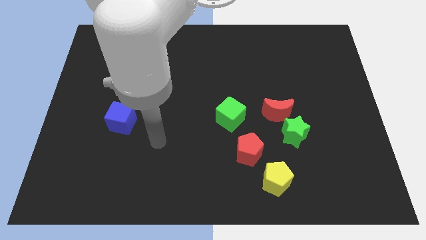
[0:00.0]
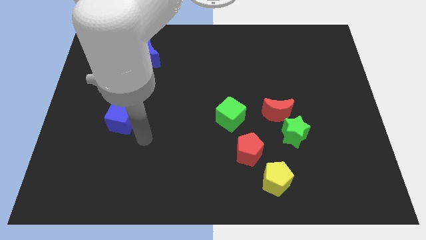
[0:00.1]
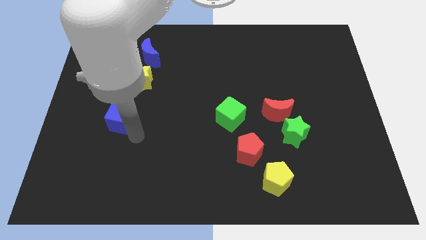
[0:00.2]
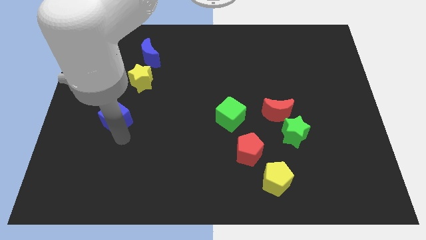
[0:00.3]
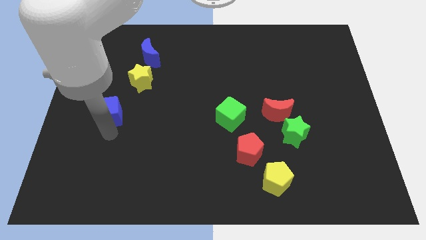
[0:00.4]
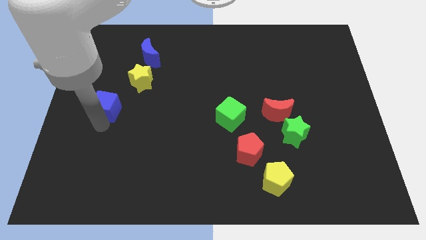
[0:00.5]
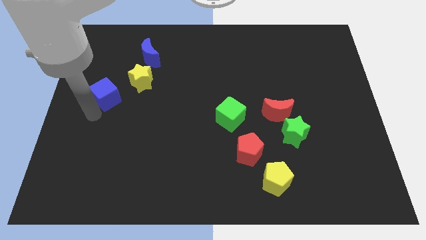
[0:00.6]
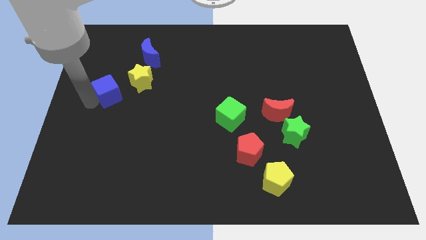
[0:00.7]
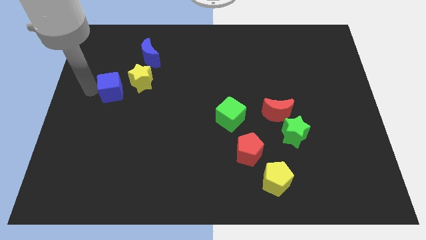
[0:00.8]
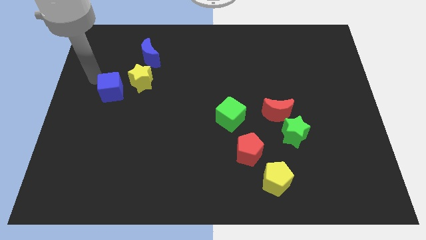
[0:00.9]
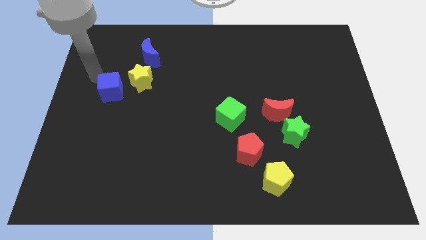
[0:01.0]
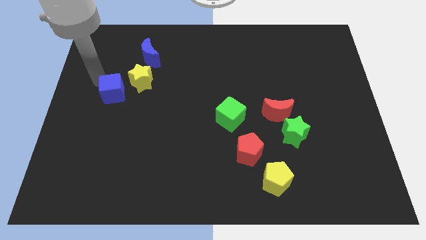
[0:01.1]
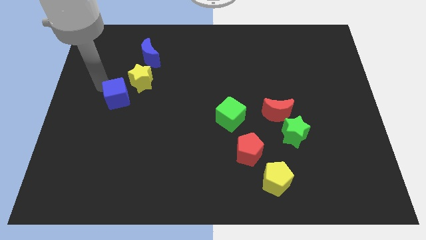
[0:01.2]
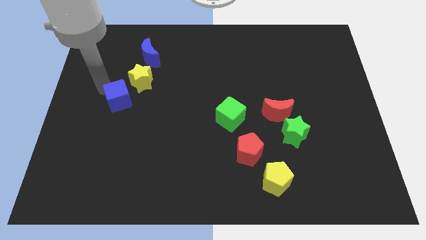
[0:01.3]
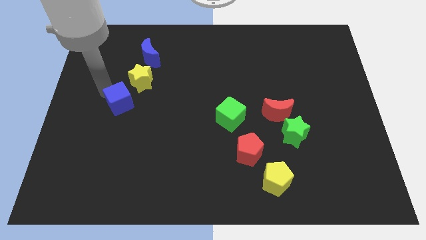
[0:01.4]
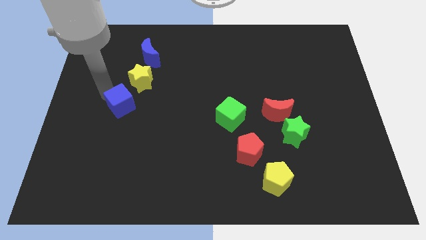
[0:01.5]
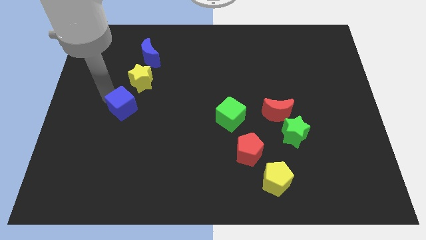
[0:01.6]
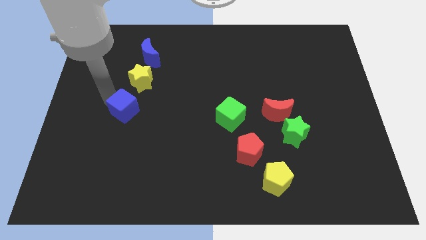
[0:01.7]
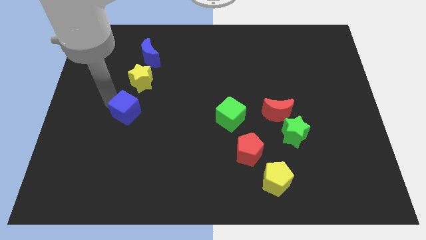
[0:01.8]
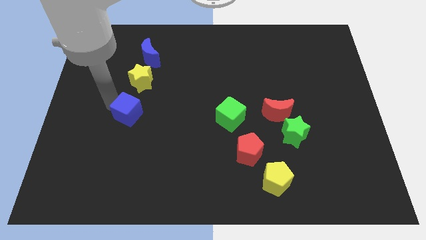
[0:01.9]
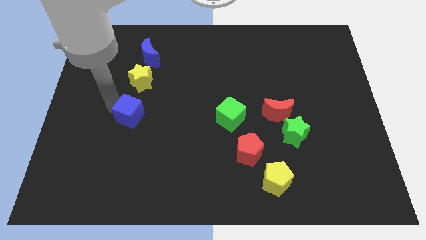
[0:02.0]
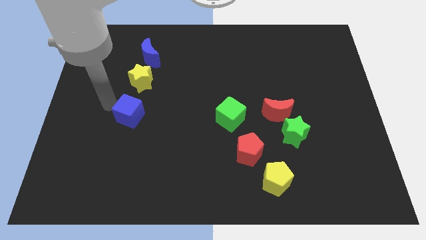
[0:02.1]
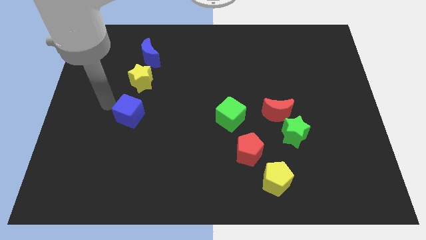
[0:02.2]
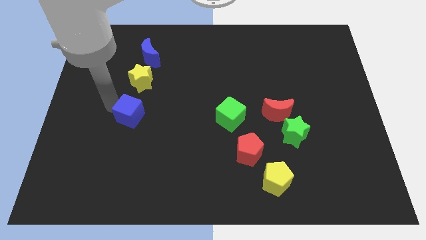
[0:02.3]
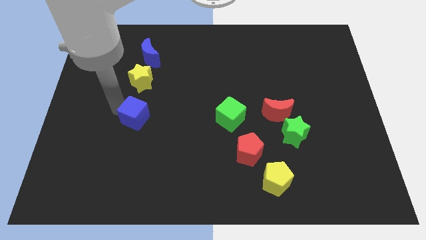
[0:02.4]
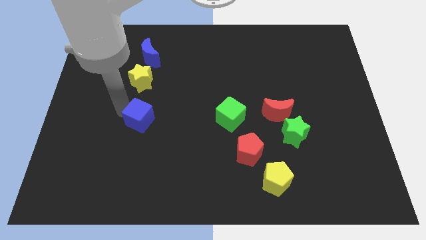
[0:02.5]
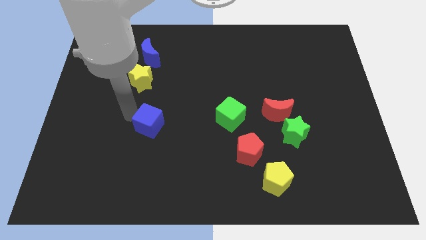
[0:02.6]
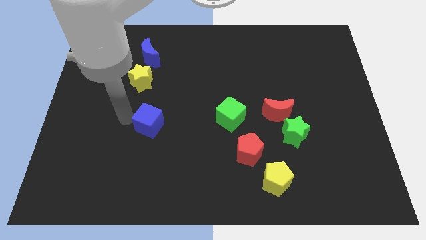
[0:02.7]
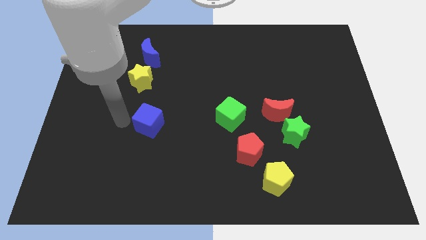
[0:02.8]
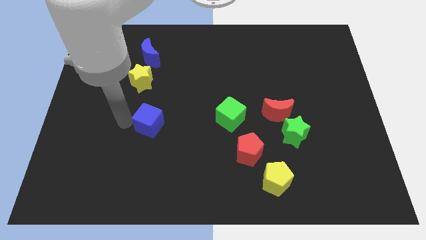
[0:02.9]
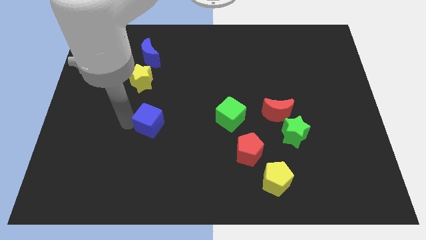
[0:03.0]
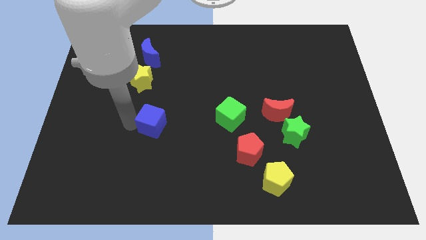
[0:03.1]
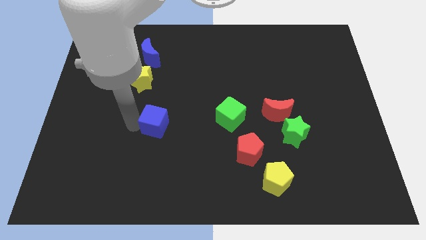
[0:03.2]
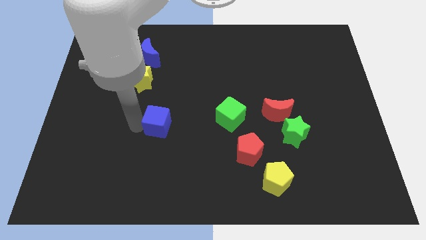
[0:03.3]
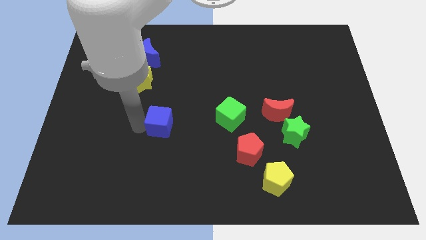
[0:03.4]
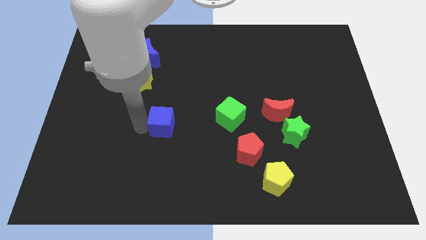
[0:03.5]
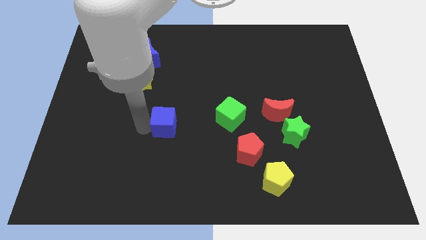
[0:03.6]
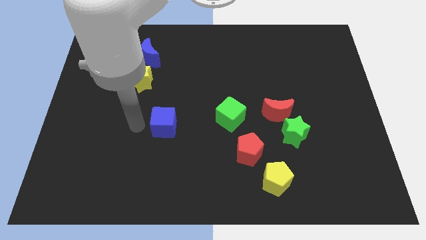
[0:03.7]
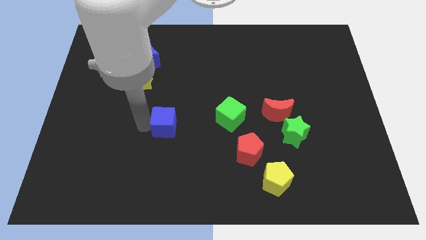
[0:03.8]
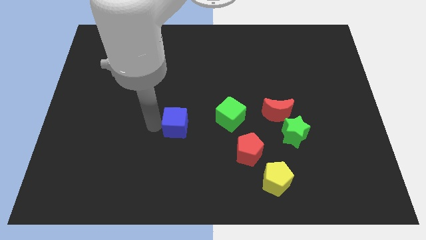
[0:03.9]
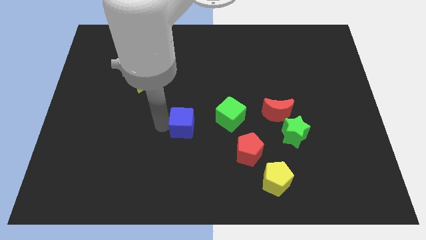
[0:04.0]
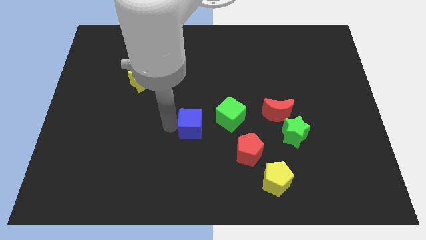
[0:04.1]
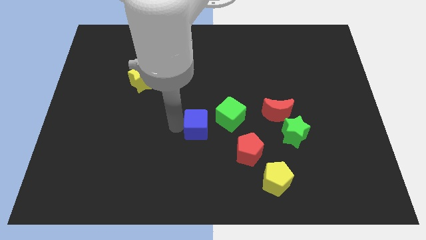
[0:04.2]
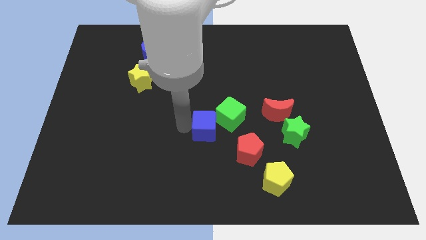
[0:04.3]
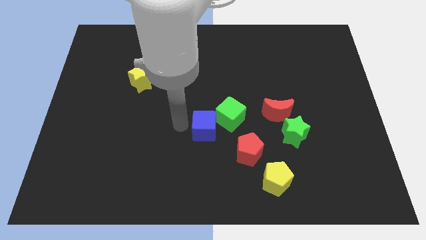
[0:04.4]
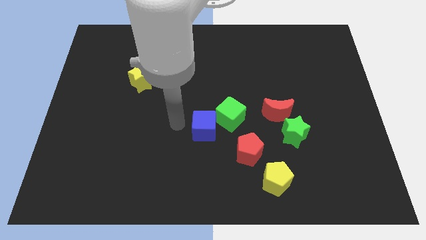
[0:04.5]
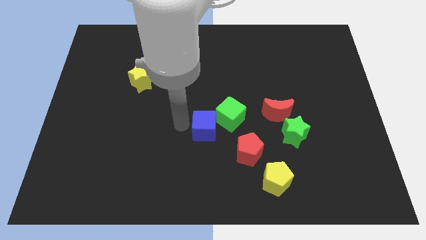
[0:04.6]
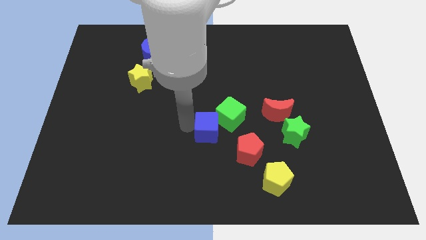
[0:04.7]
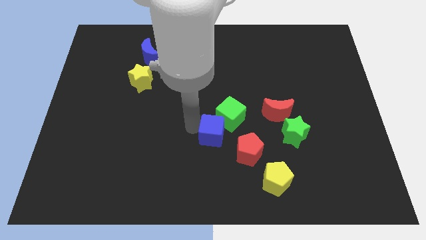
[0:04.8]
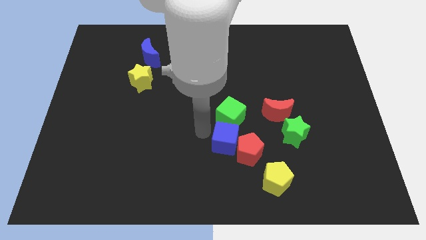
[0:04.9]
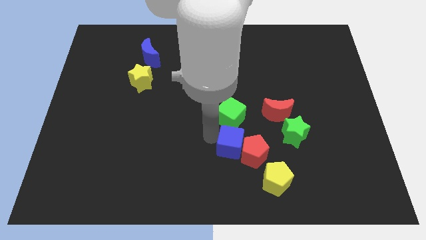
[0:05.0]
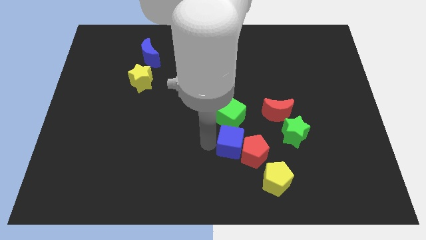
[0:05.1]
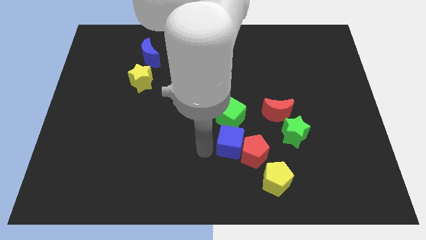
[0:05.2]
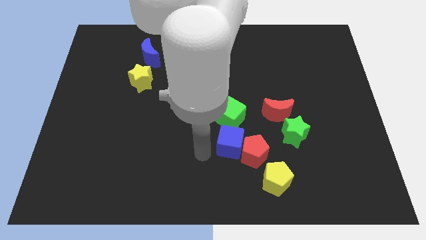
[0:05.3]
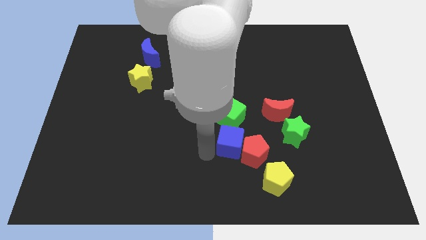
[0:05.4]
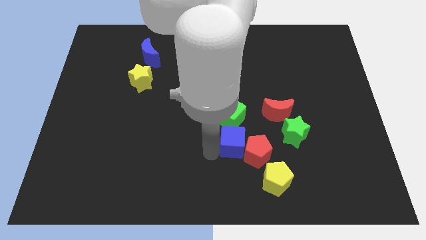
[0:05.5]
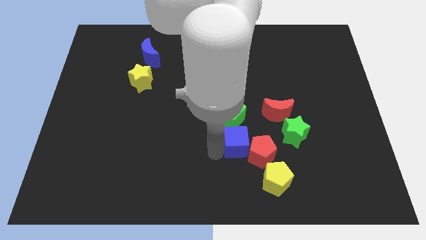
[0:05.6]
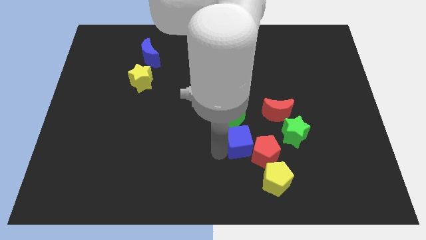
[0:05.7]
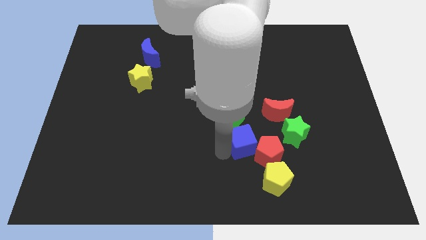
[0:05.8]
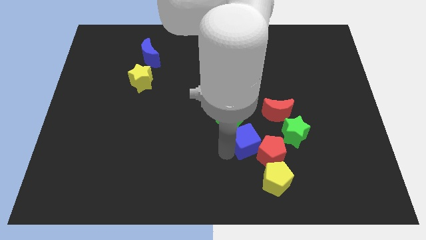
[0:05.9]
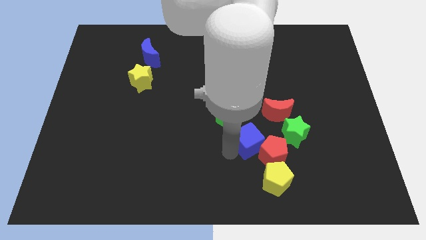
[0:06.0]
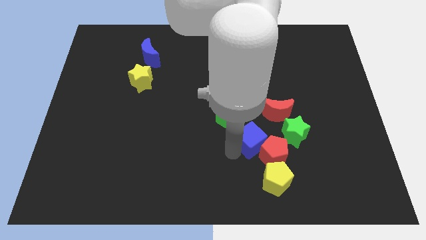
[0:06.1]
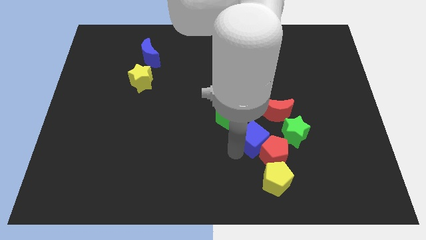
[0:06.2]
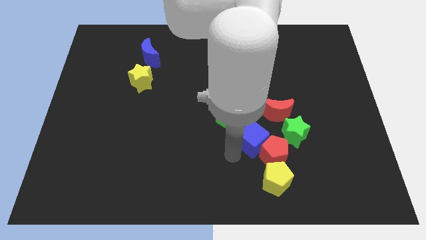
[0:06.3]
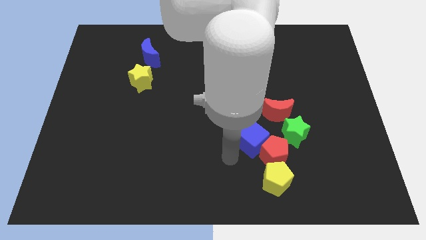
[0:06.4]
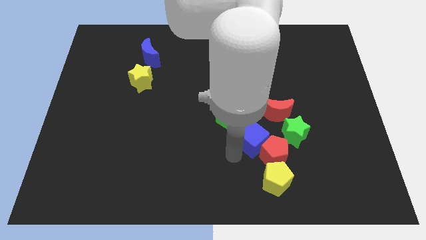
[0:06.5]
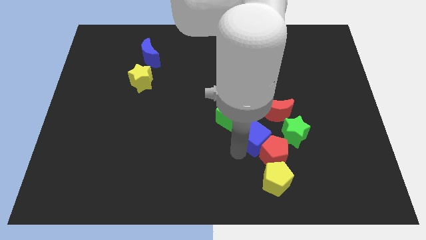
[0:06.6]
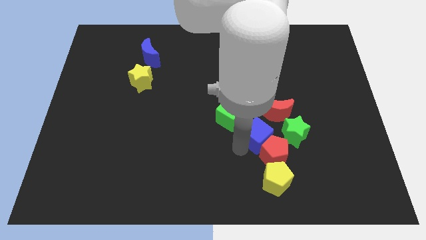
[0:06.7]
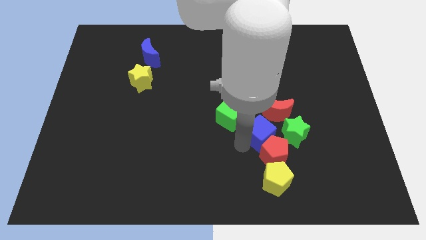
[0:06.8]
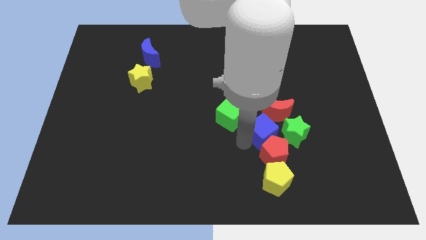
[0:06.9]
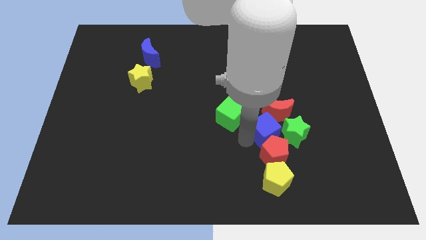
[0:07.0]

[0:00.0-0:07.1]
put the blue cube towards the green star

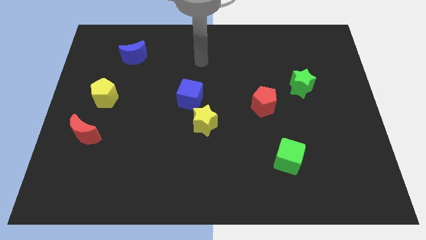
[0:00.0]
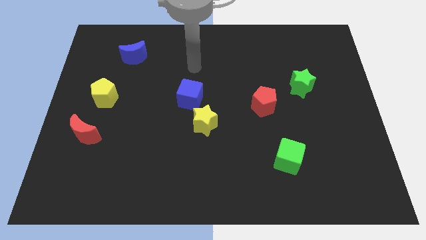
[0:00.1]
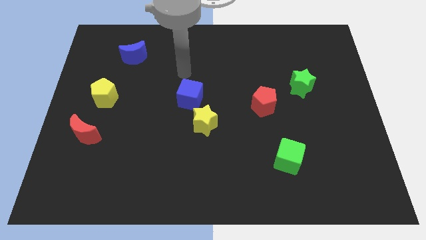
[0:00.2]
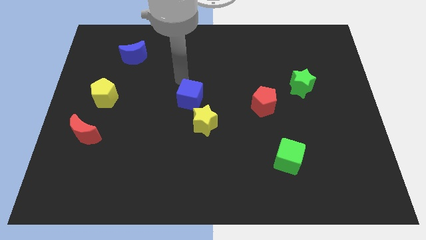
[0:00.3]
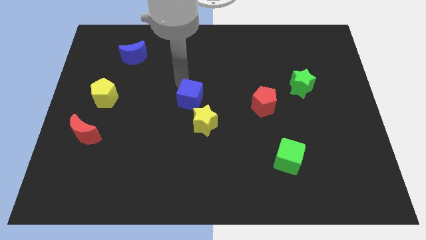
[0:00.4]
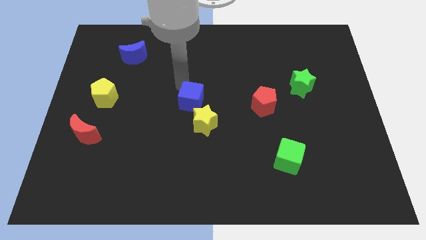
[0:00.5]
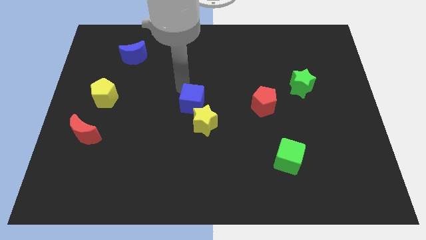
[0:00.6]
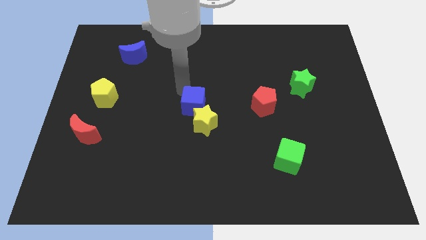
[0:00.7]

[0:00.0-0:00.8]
slide the blue cube towards the yellow star
